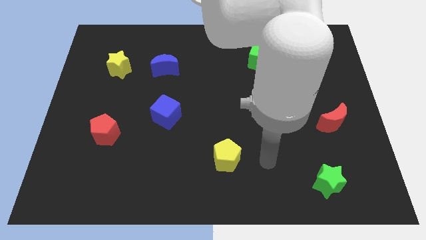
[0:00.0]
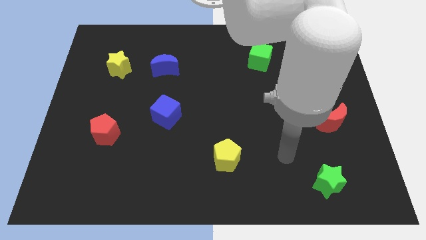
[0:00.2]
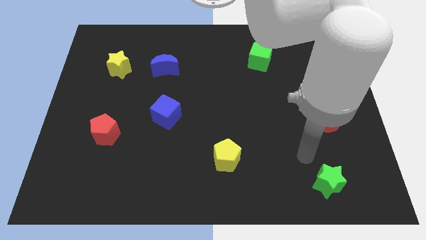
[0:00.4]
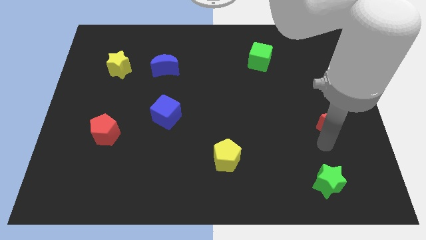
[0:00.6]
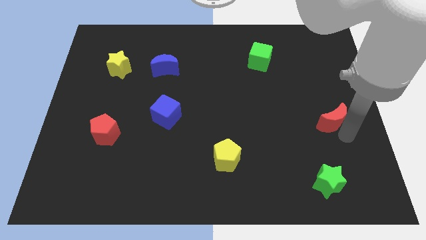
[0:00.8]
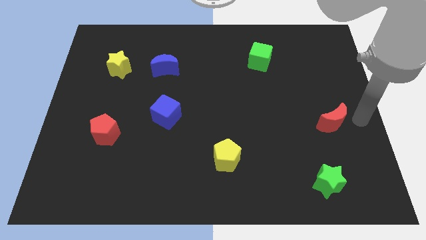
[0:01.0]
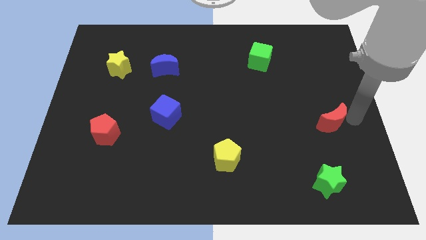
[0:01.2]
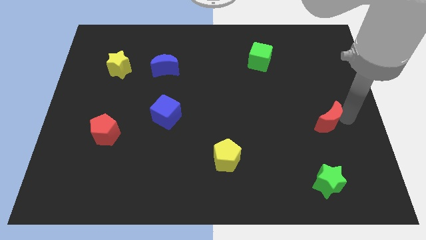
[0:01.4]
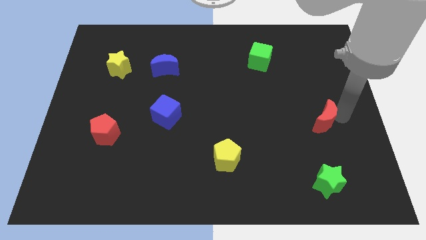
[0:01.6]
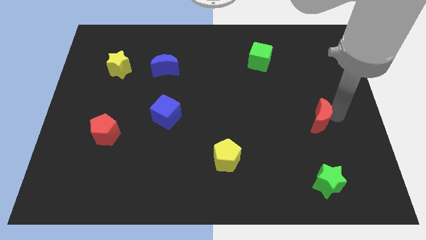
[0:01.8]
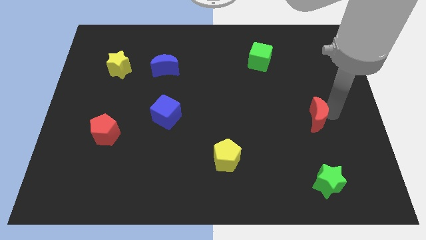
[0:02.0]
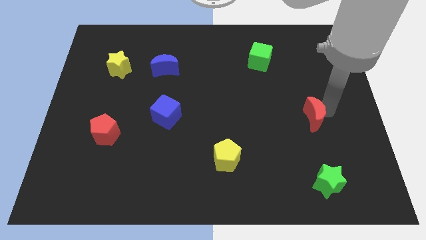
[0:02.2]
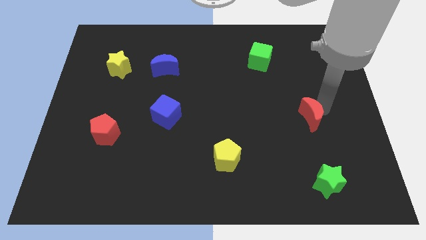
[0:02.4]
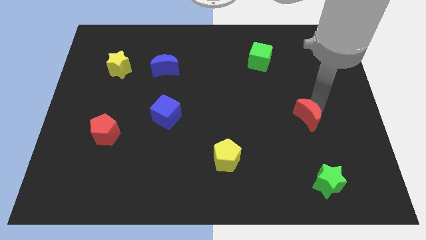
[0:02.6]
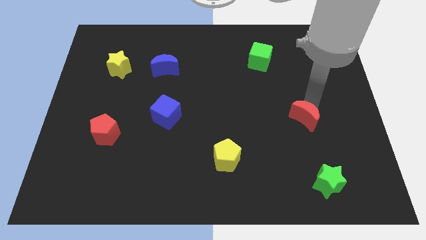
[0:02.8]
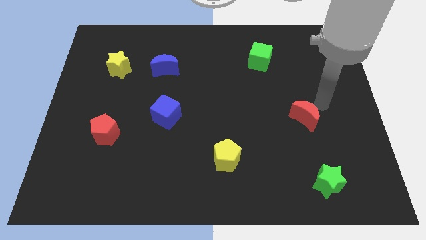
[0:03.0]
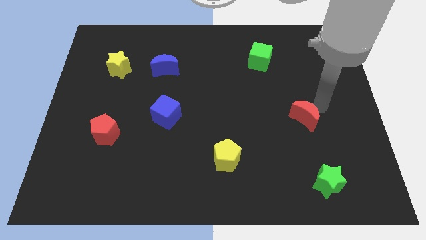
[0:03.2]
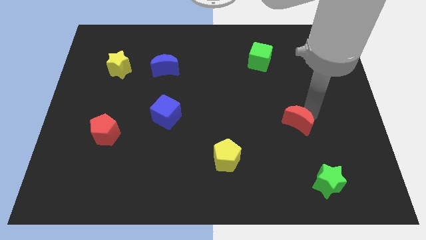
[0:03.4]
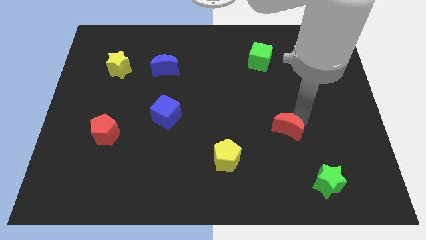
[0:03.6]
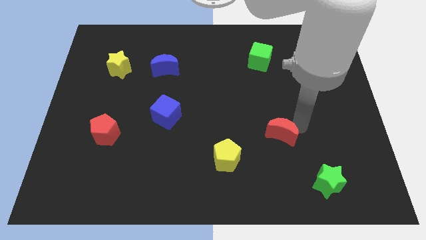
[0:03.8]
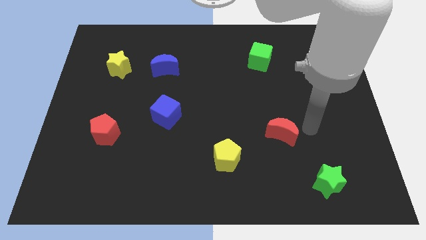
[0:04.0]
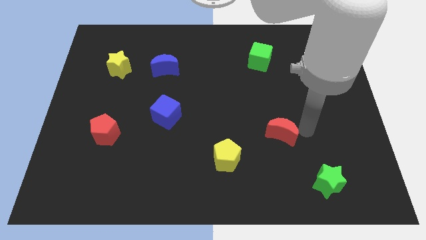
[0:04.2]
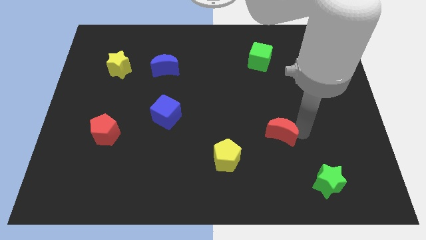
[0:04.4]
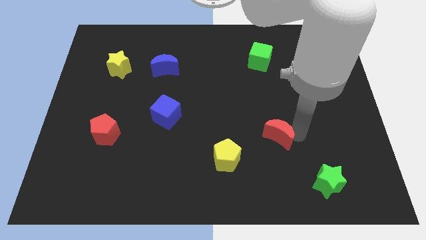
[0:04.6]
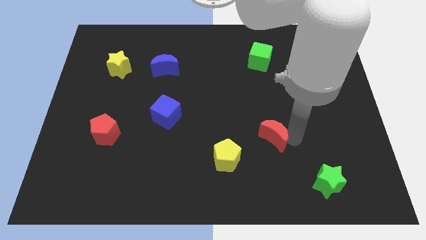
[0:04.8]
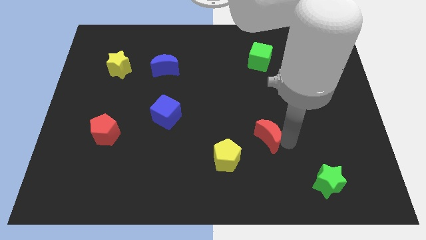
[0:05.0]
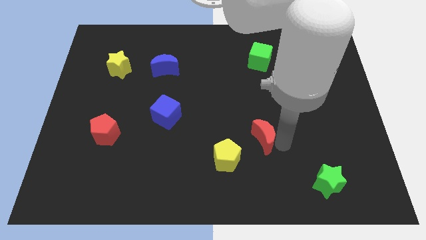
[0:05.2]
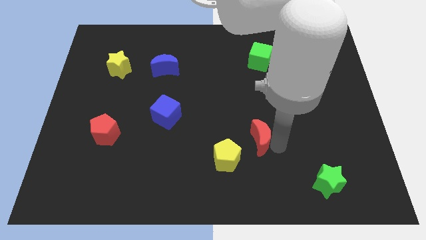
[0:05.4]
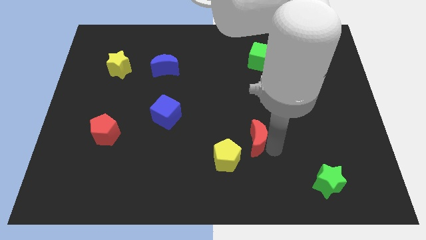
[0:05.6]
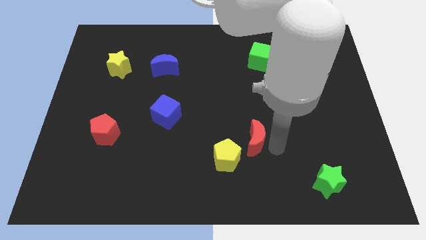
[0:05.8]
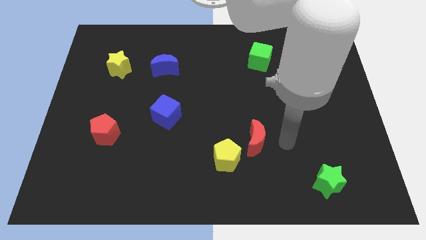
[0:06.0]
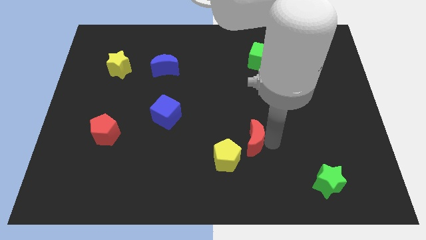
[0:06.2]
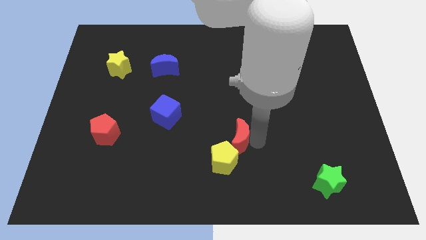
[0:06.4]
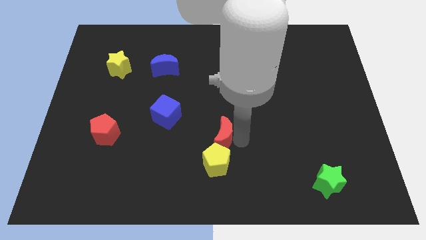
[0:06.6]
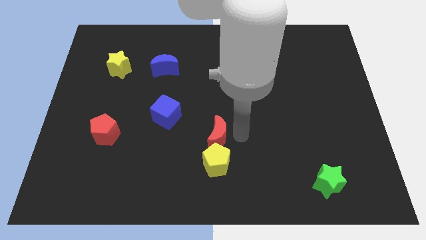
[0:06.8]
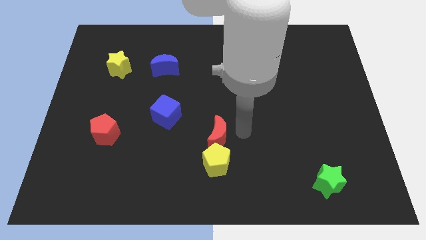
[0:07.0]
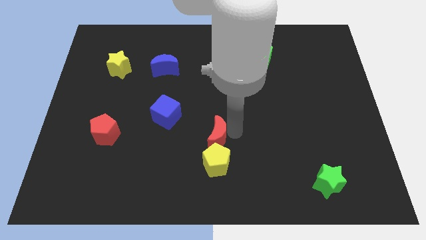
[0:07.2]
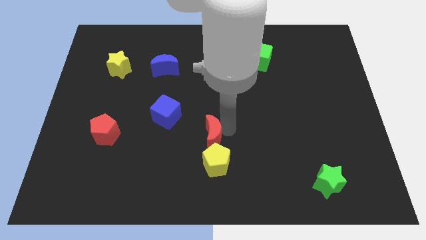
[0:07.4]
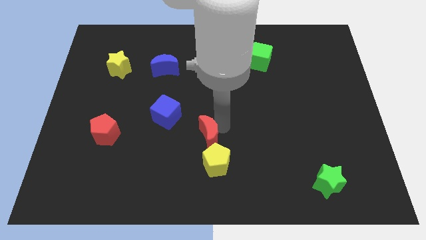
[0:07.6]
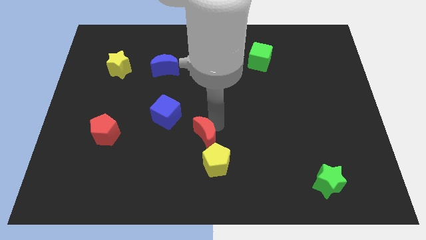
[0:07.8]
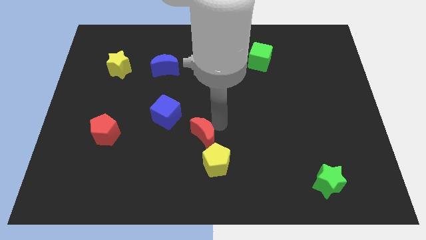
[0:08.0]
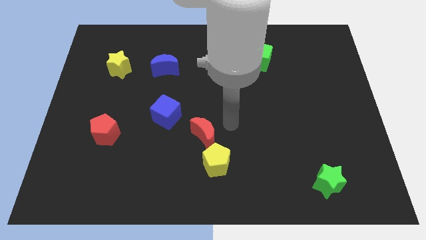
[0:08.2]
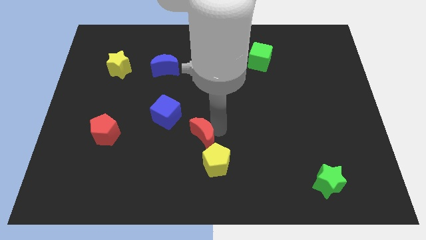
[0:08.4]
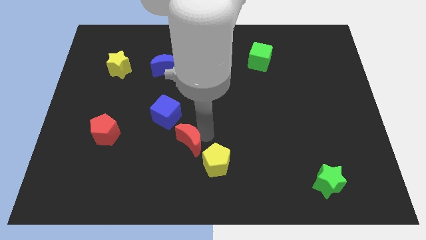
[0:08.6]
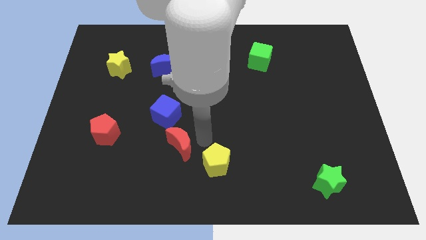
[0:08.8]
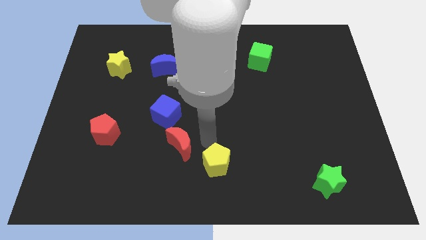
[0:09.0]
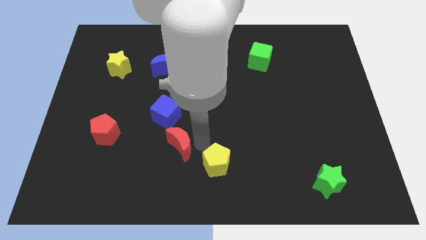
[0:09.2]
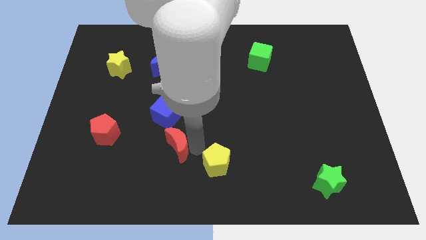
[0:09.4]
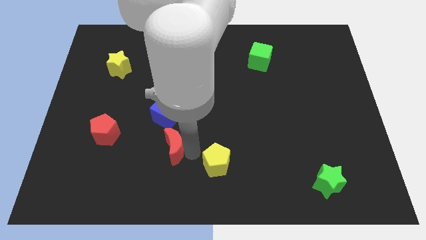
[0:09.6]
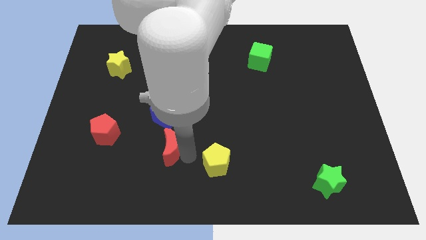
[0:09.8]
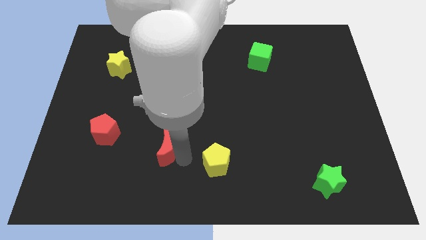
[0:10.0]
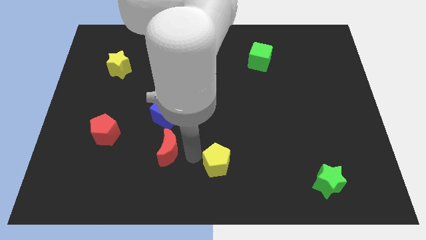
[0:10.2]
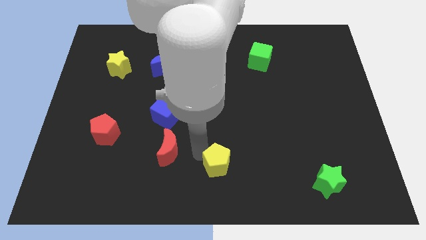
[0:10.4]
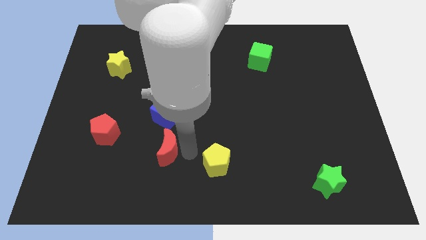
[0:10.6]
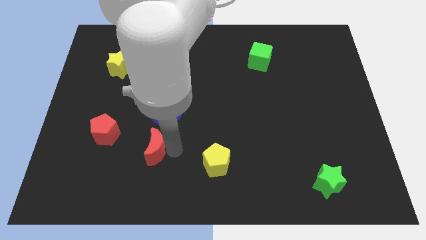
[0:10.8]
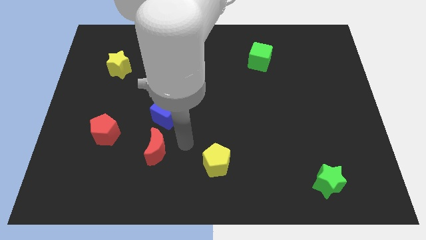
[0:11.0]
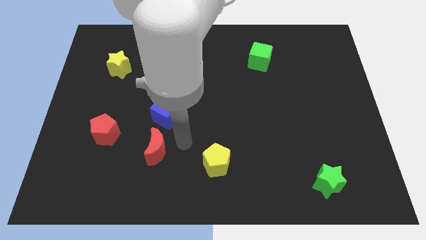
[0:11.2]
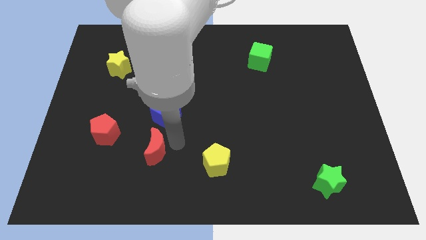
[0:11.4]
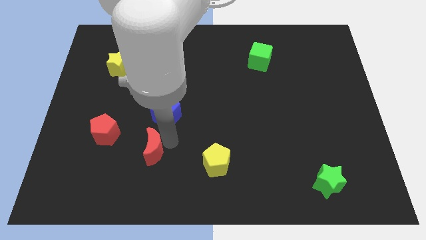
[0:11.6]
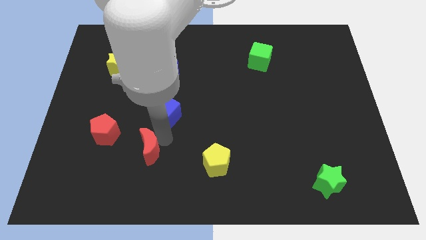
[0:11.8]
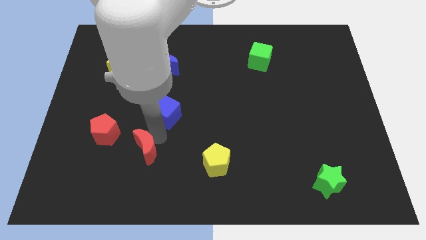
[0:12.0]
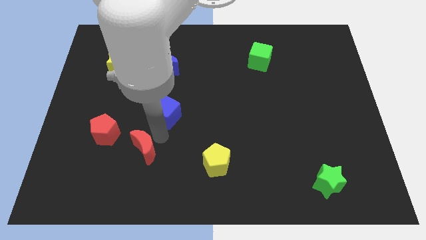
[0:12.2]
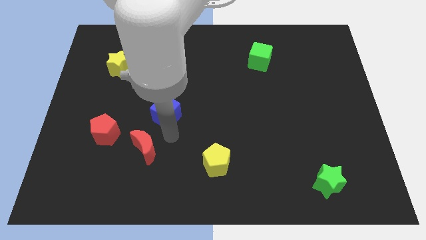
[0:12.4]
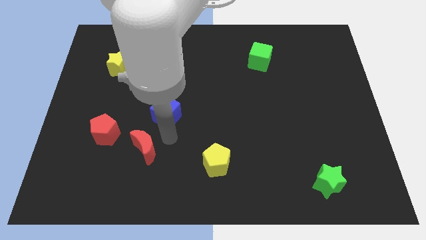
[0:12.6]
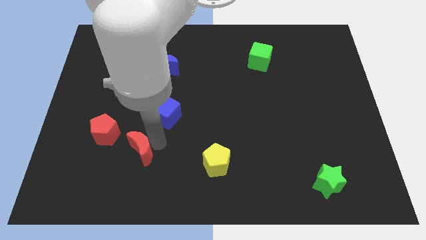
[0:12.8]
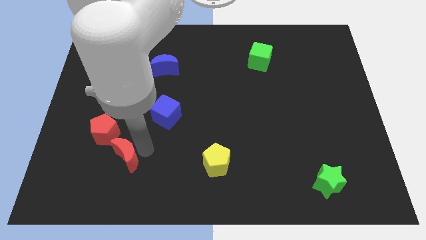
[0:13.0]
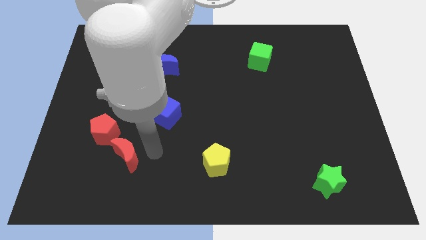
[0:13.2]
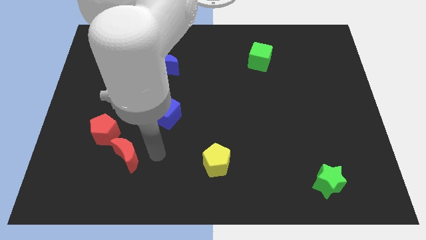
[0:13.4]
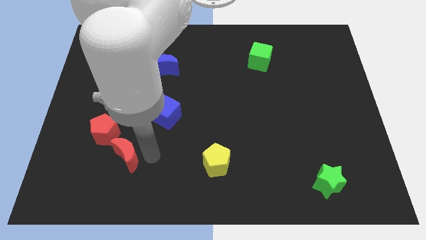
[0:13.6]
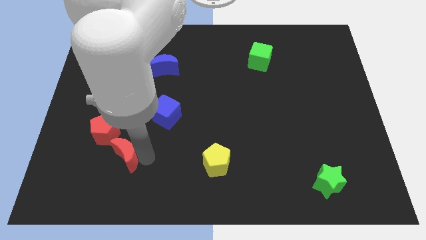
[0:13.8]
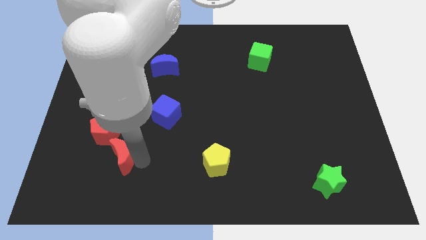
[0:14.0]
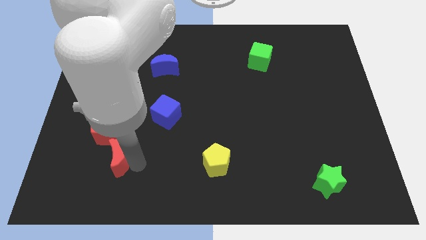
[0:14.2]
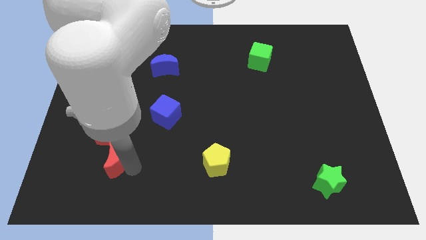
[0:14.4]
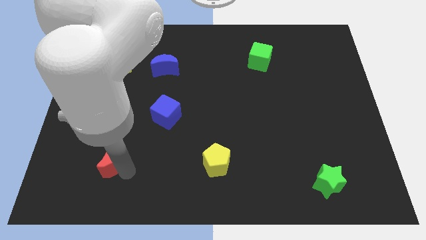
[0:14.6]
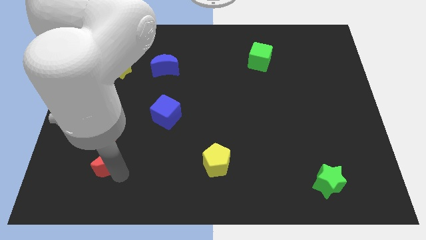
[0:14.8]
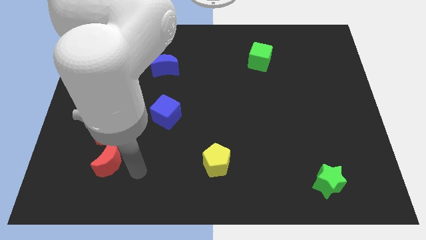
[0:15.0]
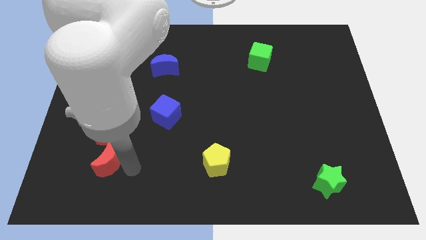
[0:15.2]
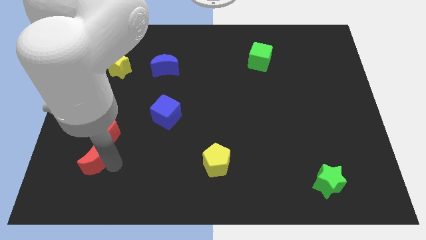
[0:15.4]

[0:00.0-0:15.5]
move the red moon to the bottom left side of the red pentagon

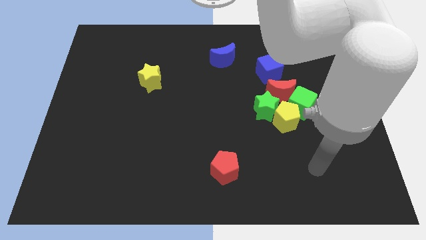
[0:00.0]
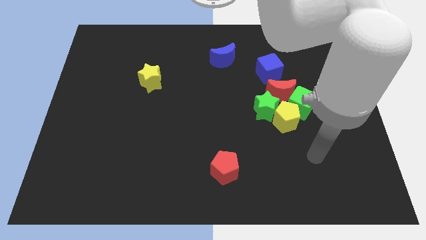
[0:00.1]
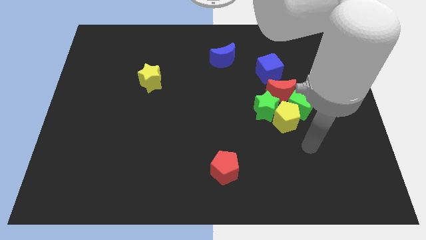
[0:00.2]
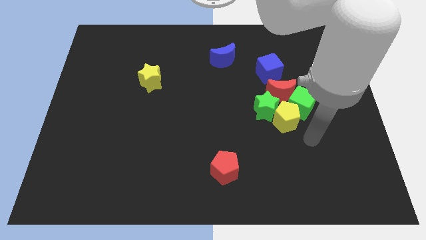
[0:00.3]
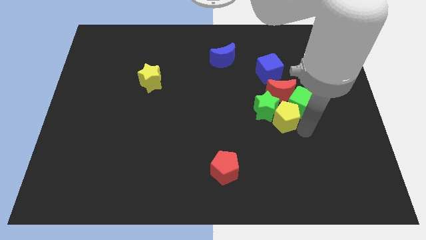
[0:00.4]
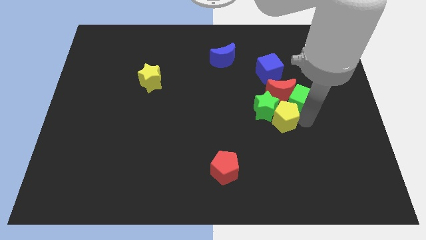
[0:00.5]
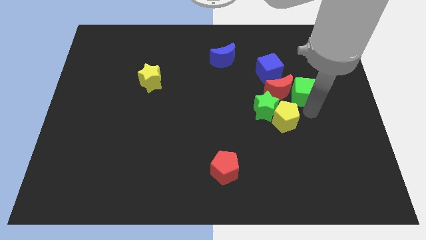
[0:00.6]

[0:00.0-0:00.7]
put the red moon to the bottom left side of the green cube
